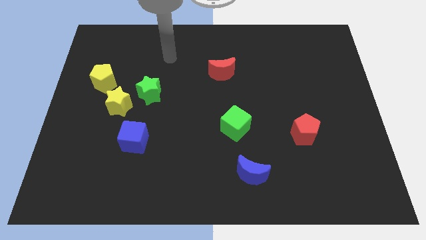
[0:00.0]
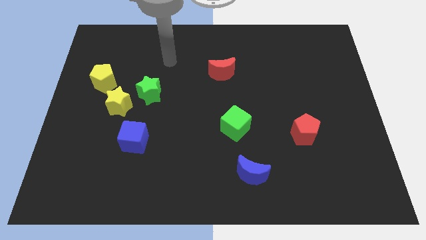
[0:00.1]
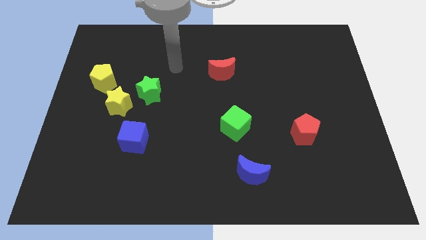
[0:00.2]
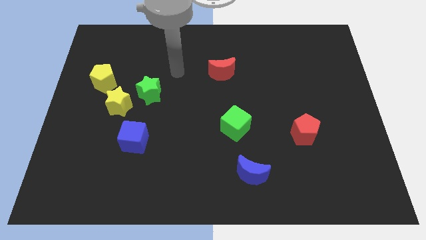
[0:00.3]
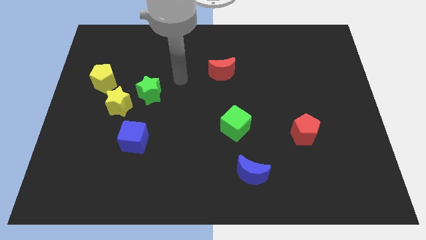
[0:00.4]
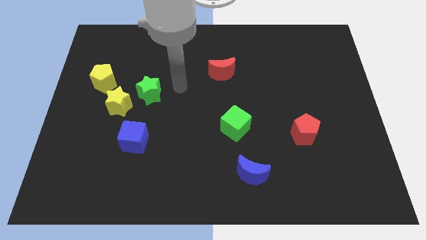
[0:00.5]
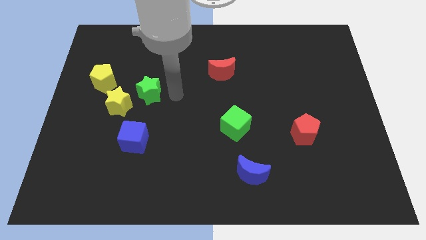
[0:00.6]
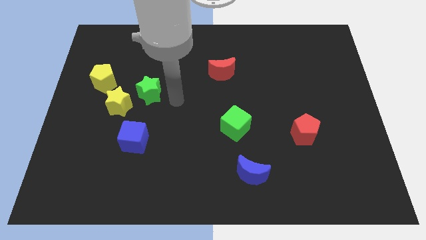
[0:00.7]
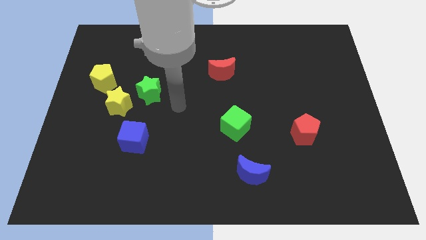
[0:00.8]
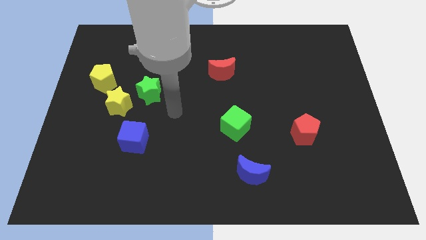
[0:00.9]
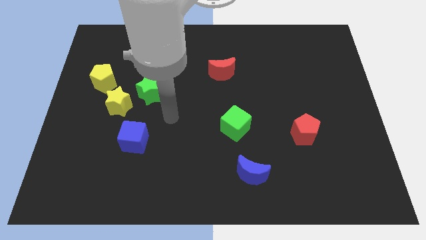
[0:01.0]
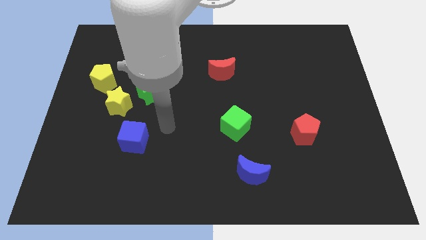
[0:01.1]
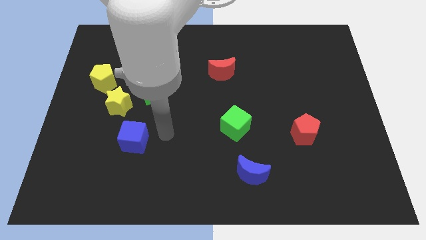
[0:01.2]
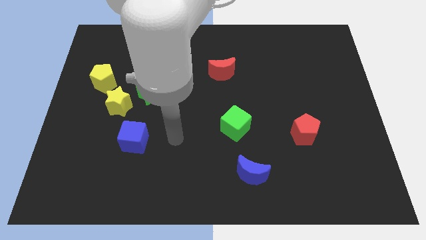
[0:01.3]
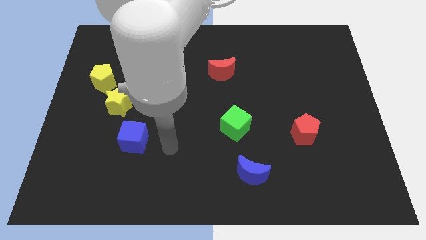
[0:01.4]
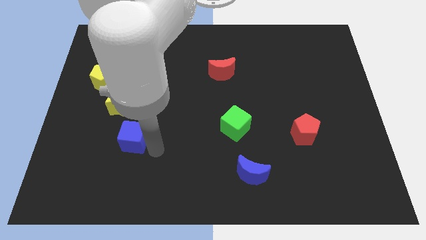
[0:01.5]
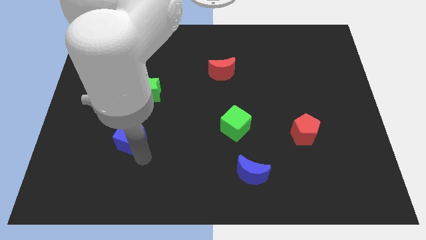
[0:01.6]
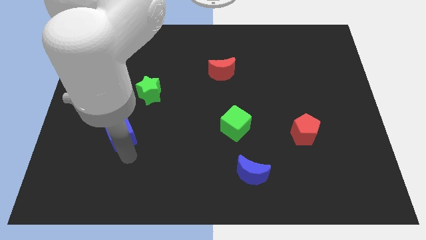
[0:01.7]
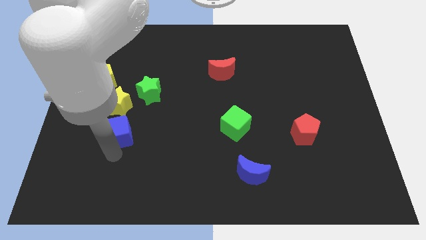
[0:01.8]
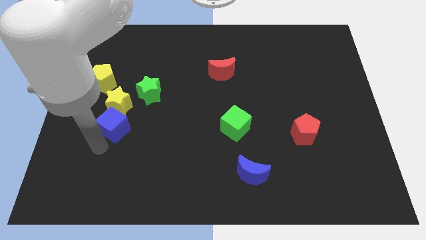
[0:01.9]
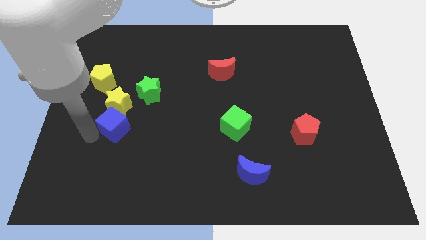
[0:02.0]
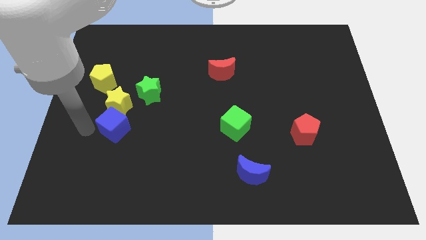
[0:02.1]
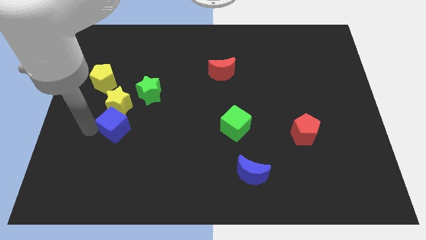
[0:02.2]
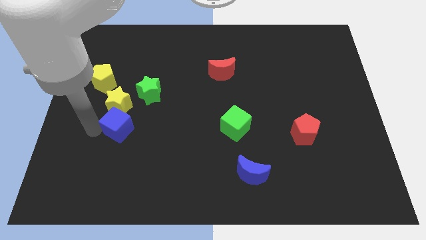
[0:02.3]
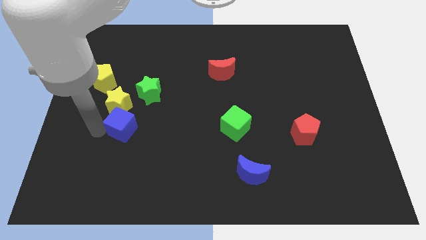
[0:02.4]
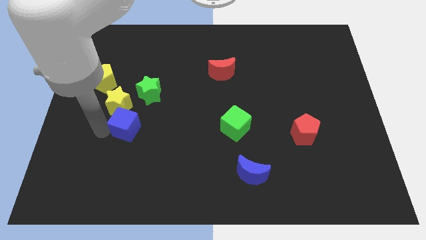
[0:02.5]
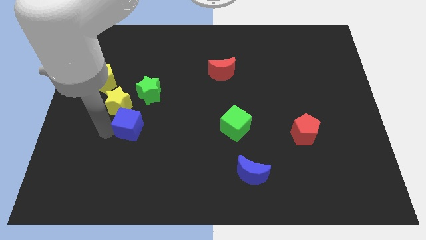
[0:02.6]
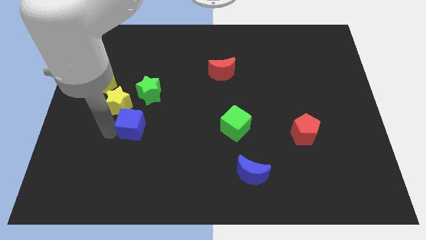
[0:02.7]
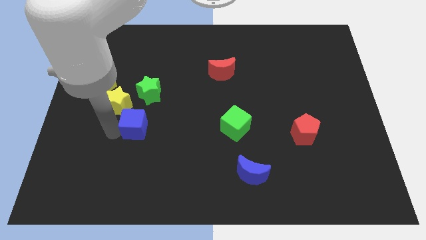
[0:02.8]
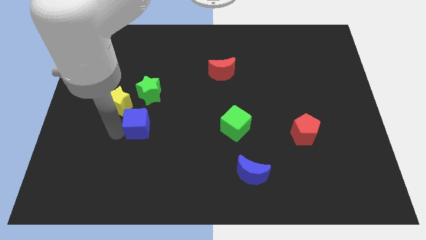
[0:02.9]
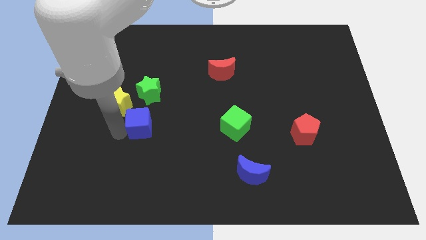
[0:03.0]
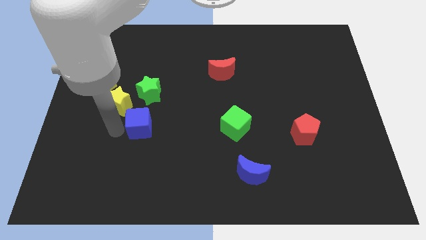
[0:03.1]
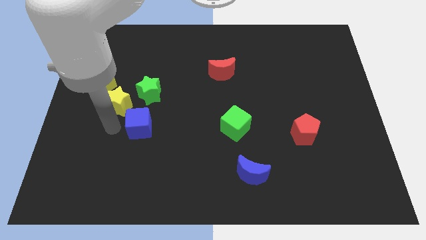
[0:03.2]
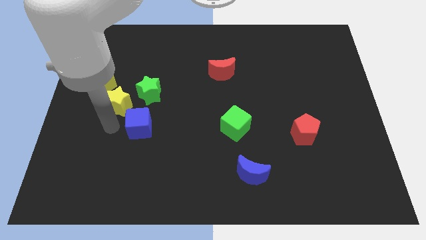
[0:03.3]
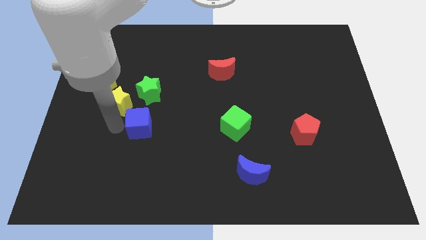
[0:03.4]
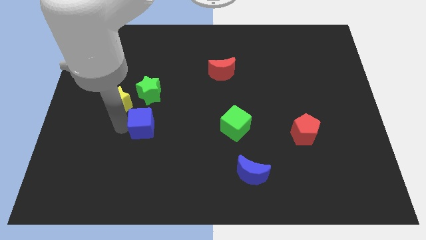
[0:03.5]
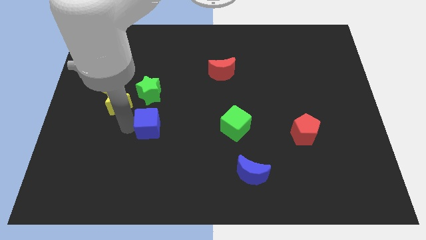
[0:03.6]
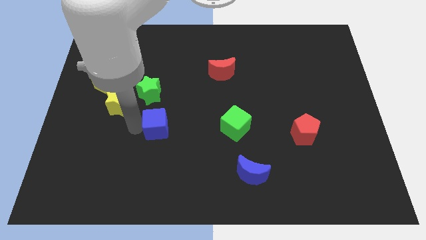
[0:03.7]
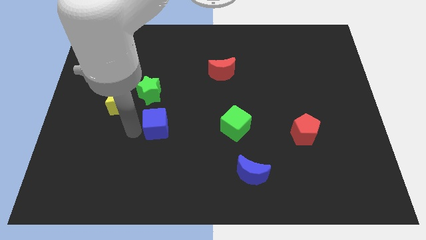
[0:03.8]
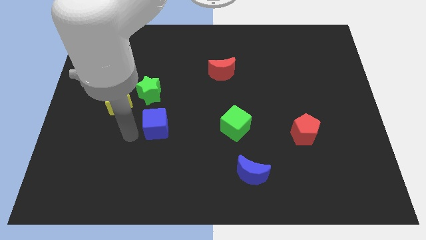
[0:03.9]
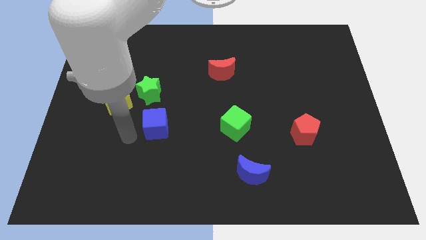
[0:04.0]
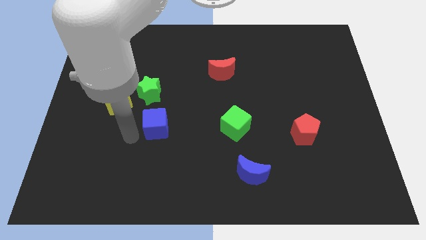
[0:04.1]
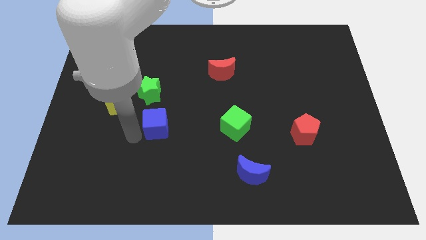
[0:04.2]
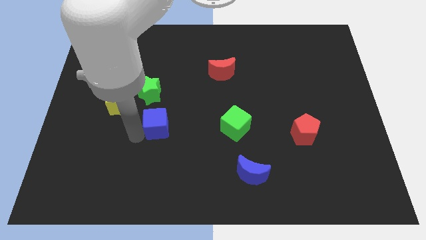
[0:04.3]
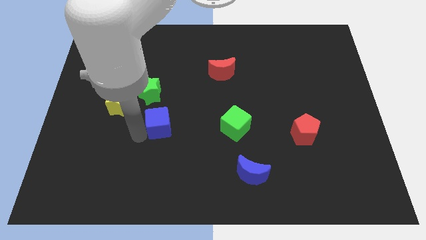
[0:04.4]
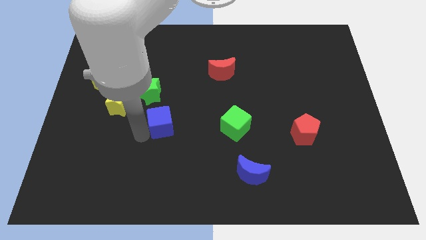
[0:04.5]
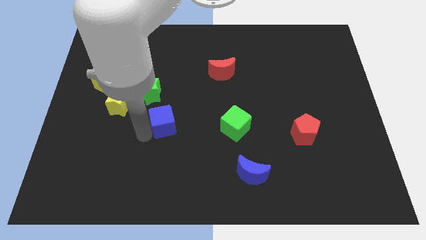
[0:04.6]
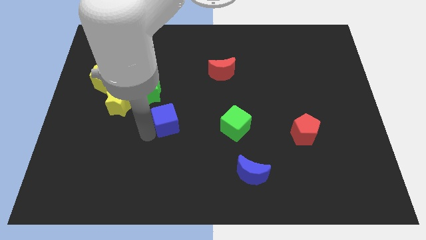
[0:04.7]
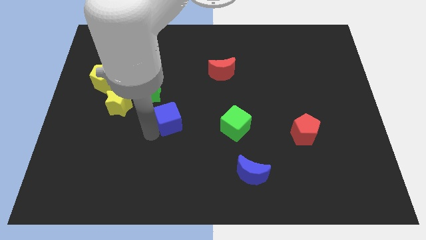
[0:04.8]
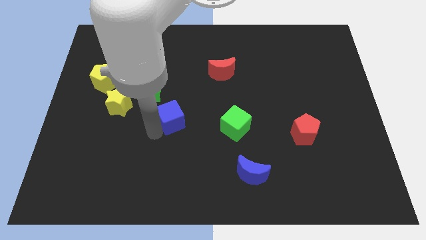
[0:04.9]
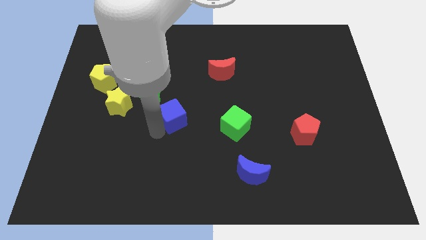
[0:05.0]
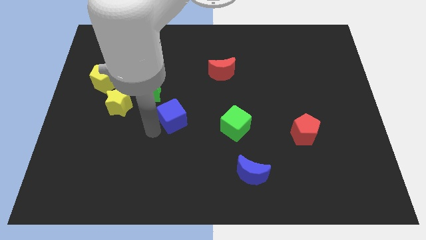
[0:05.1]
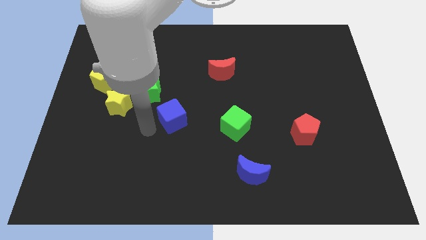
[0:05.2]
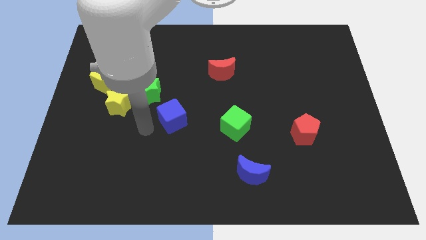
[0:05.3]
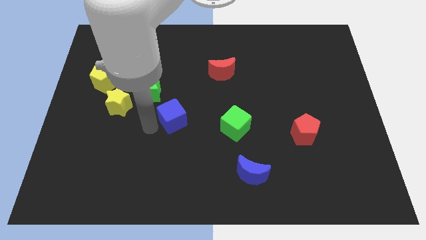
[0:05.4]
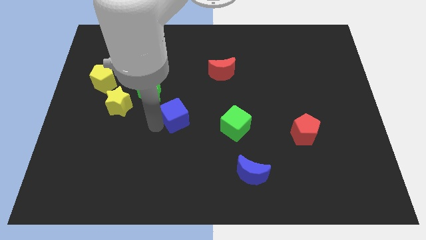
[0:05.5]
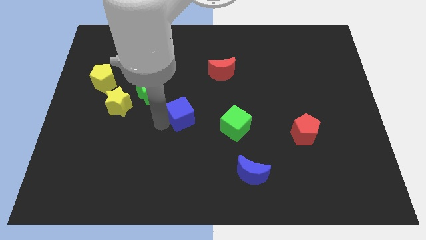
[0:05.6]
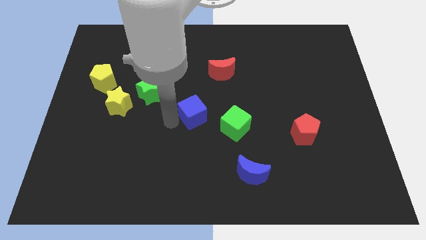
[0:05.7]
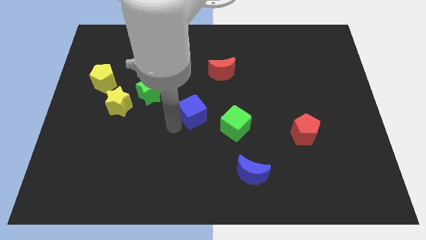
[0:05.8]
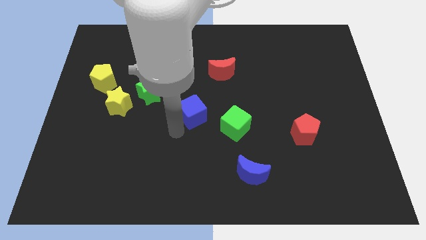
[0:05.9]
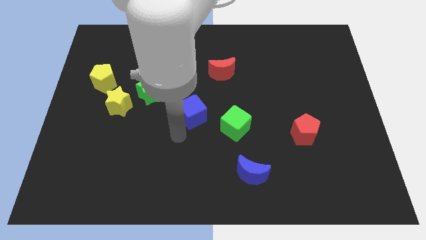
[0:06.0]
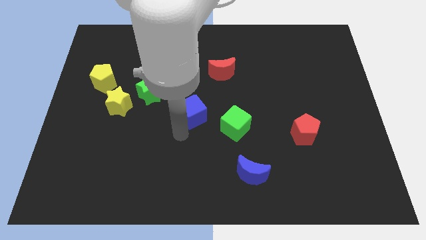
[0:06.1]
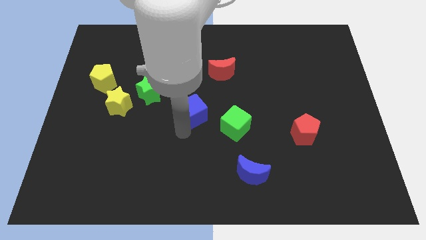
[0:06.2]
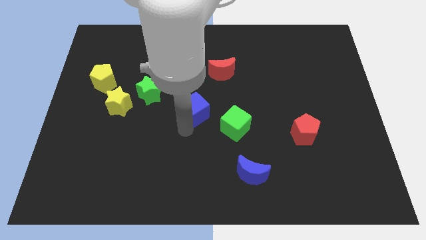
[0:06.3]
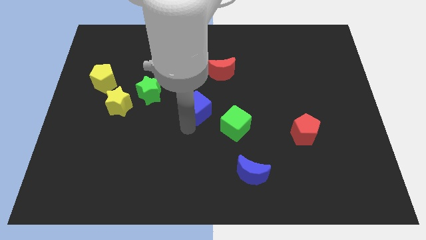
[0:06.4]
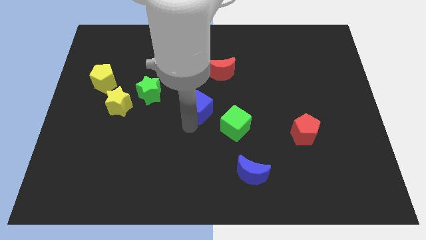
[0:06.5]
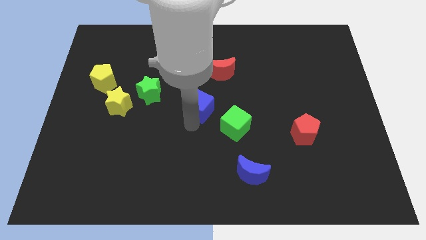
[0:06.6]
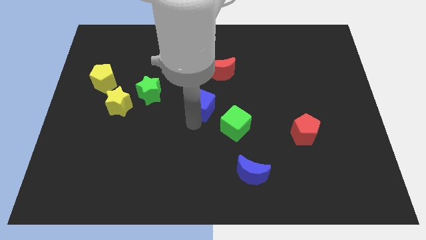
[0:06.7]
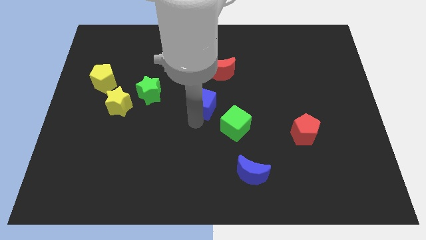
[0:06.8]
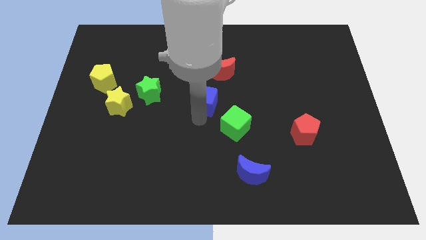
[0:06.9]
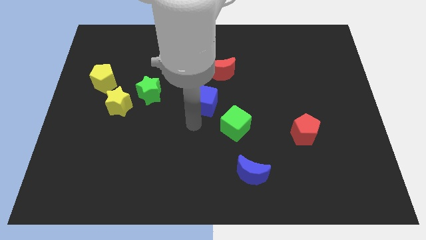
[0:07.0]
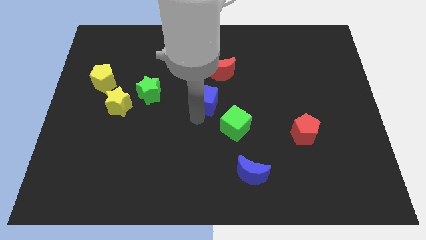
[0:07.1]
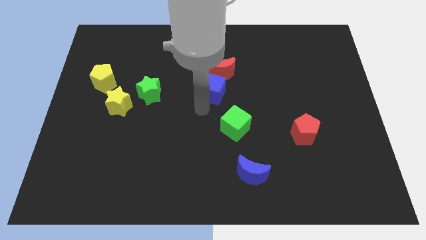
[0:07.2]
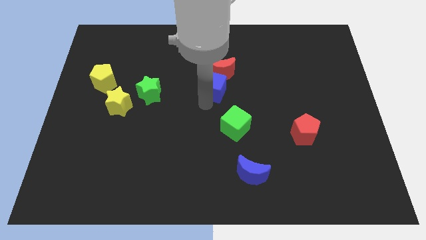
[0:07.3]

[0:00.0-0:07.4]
slide the blue cube close to the red moon

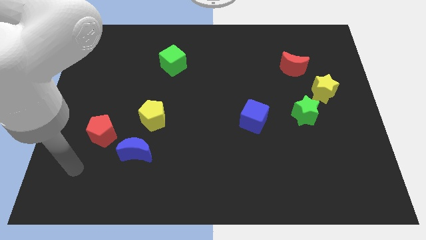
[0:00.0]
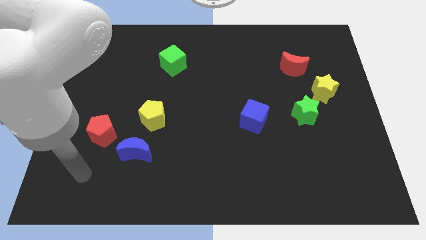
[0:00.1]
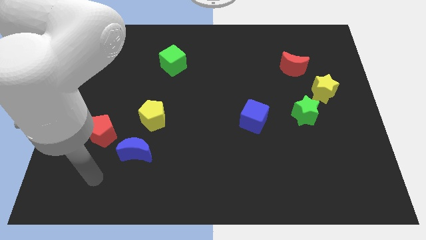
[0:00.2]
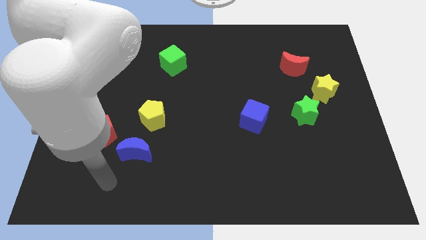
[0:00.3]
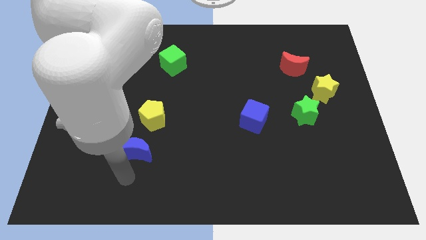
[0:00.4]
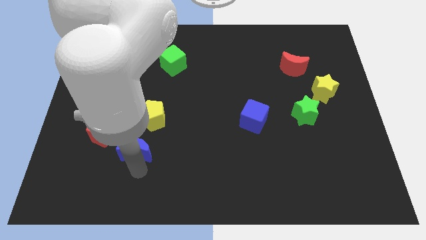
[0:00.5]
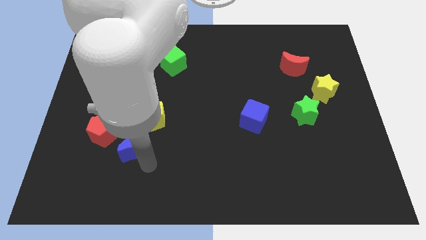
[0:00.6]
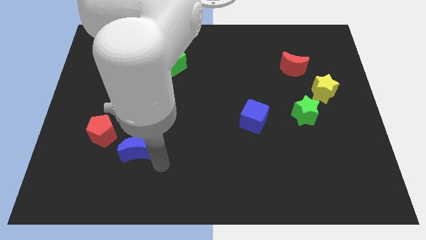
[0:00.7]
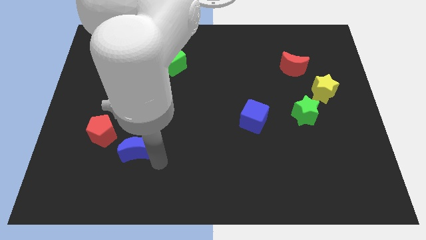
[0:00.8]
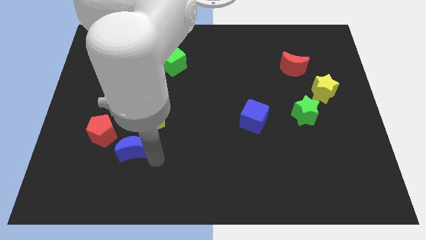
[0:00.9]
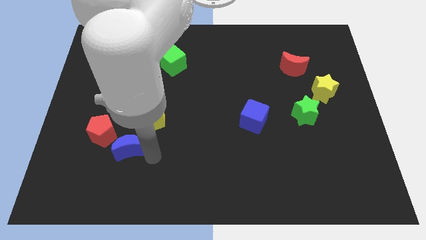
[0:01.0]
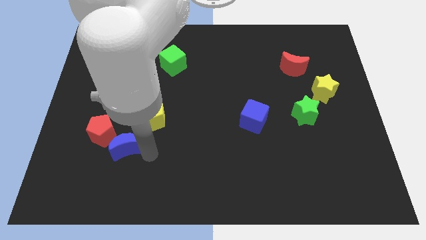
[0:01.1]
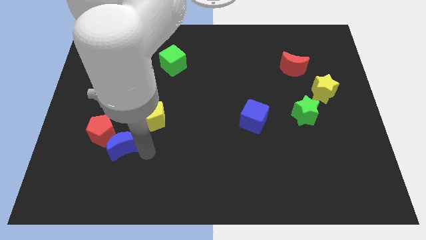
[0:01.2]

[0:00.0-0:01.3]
push the blue moon to the red pentagon
